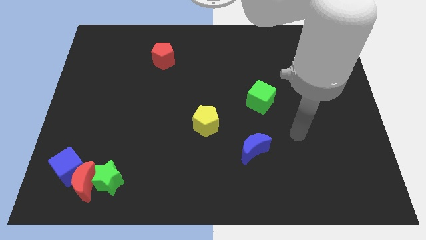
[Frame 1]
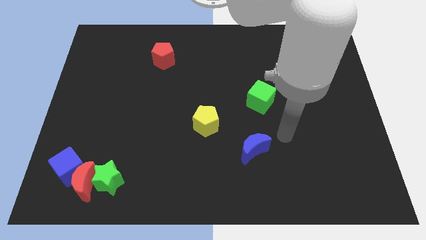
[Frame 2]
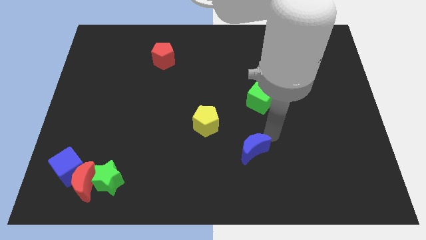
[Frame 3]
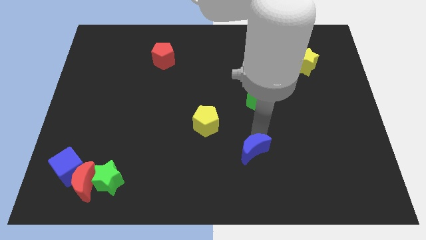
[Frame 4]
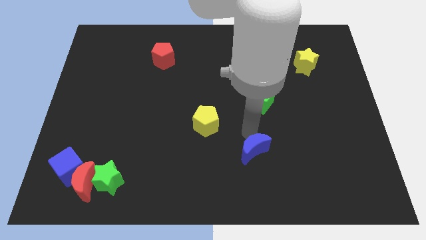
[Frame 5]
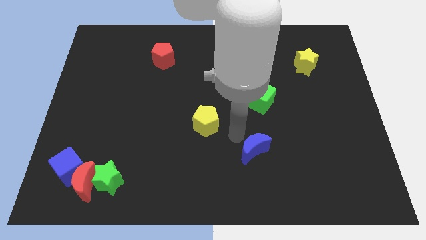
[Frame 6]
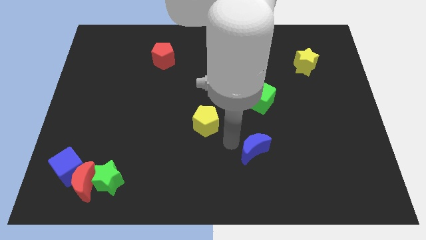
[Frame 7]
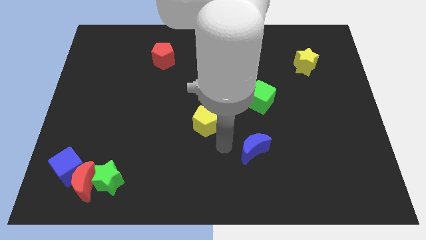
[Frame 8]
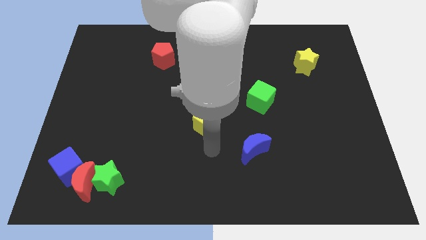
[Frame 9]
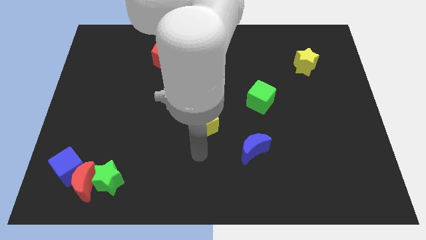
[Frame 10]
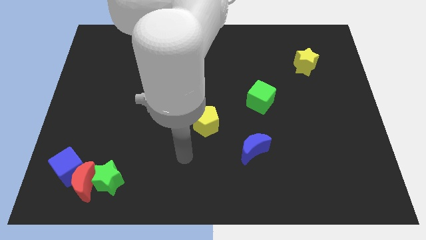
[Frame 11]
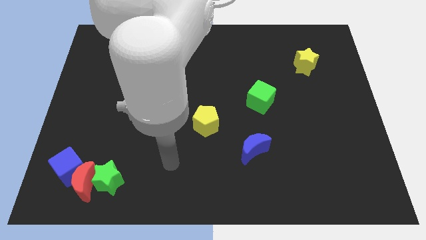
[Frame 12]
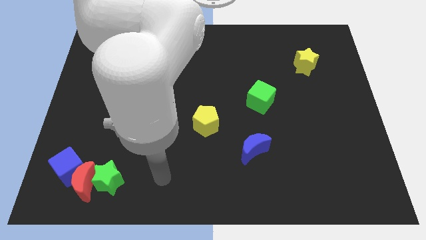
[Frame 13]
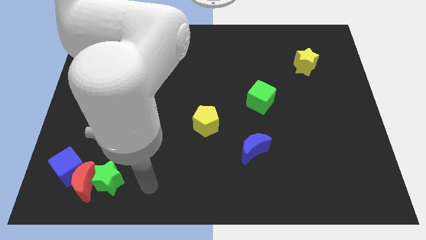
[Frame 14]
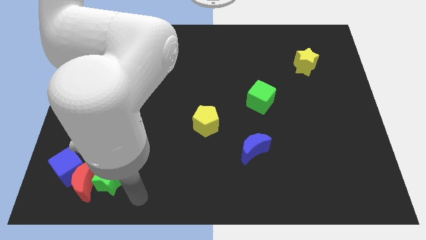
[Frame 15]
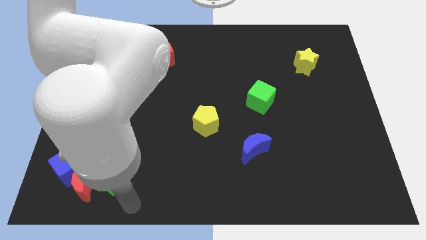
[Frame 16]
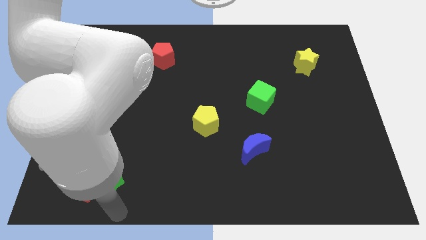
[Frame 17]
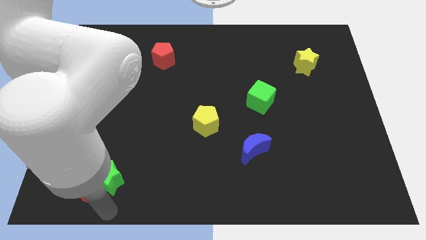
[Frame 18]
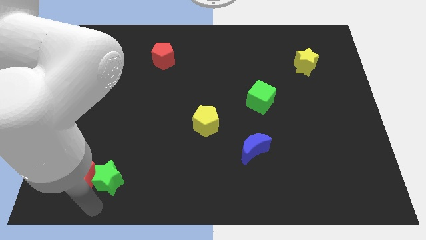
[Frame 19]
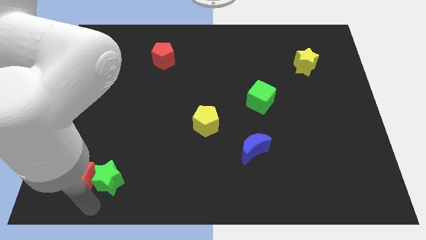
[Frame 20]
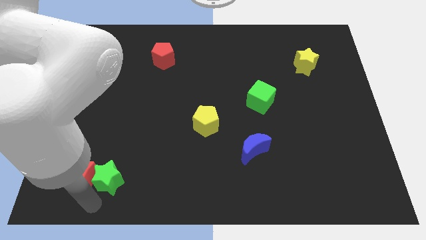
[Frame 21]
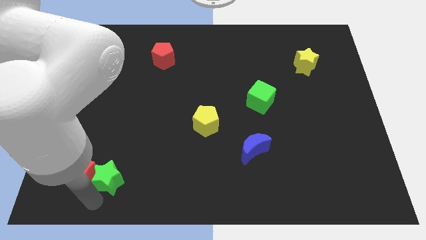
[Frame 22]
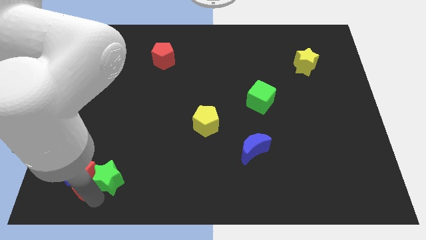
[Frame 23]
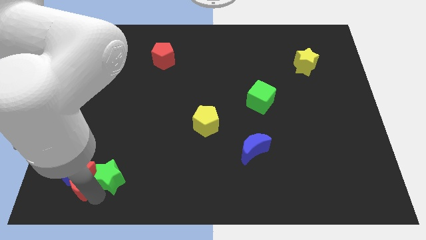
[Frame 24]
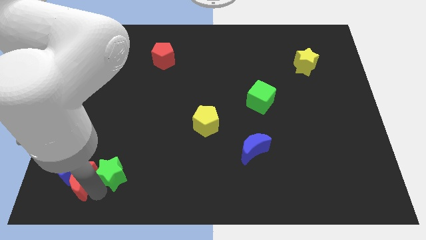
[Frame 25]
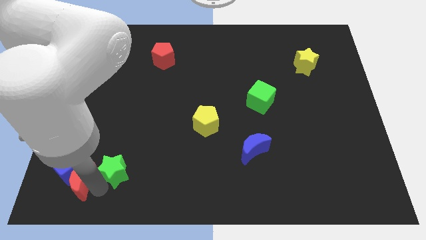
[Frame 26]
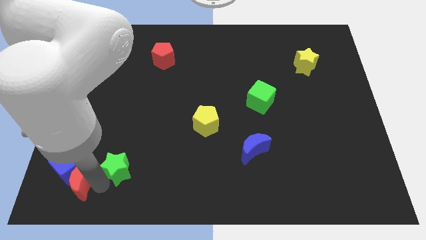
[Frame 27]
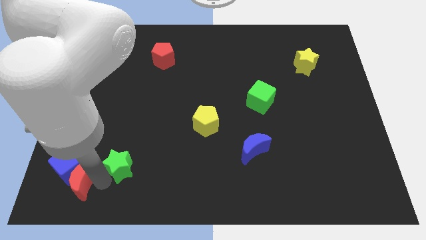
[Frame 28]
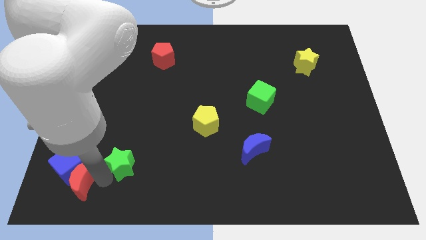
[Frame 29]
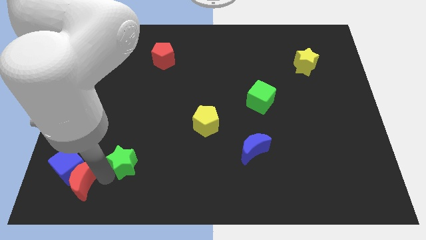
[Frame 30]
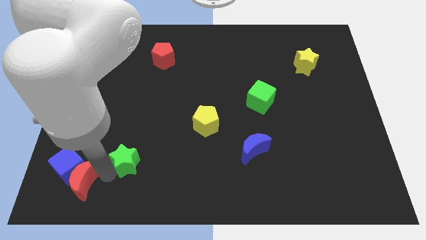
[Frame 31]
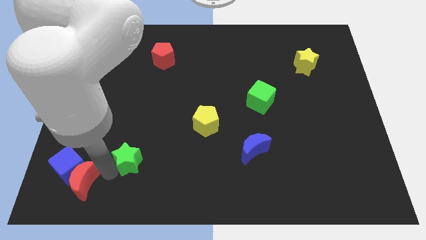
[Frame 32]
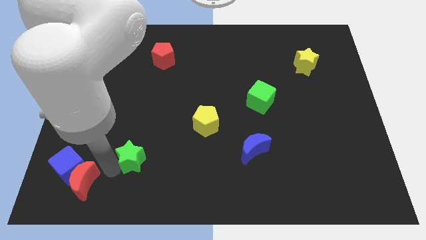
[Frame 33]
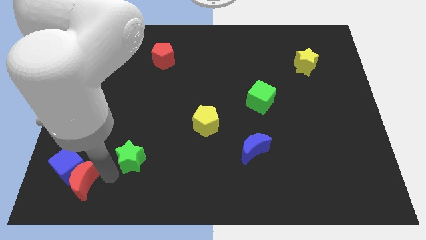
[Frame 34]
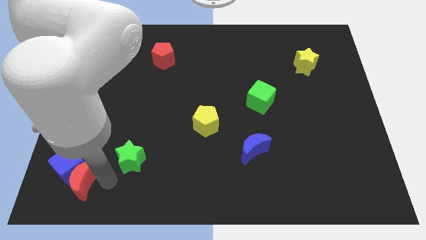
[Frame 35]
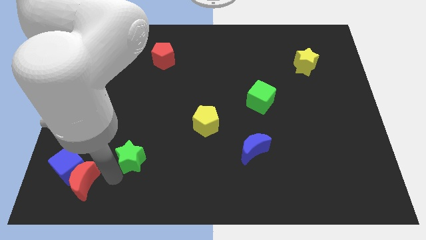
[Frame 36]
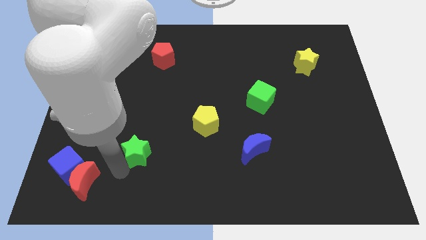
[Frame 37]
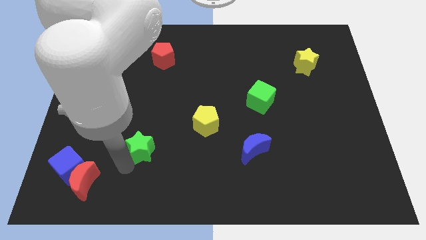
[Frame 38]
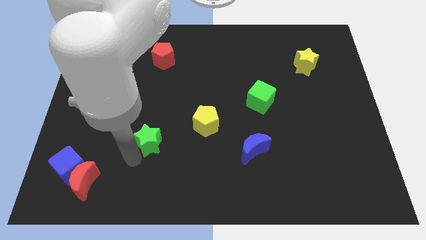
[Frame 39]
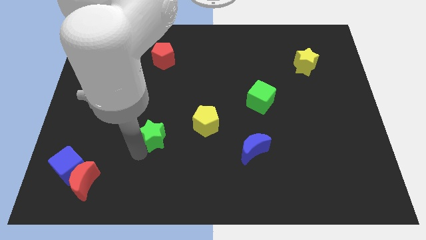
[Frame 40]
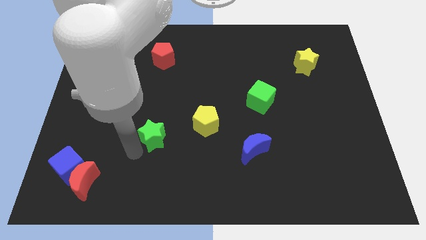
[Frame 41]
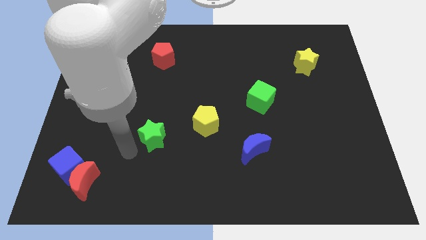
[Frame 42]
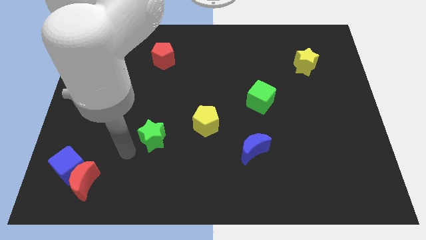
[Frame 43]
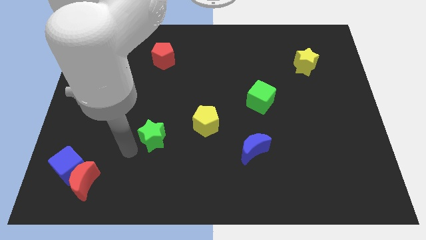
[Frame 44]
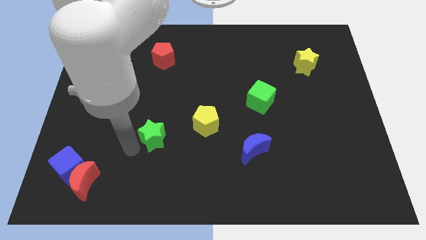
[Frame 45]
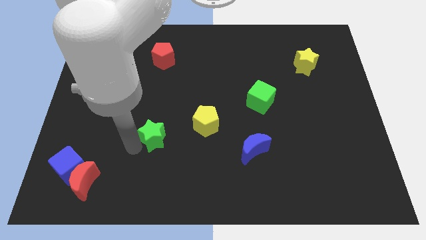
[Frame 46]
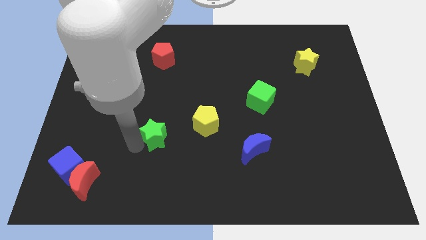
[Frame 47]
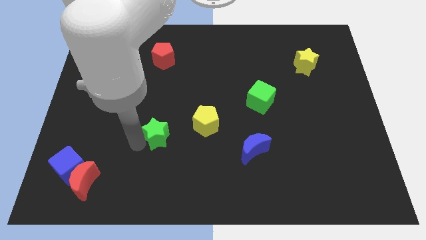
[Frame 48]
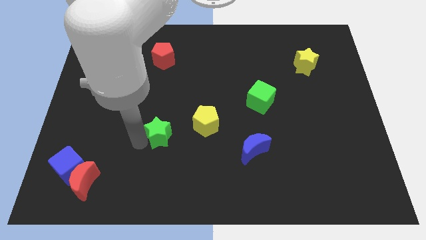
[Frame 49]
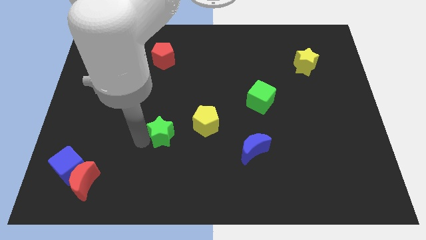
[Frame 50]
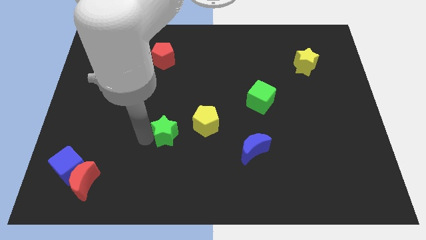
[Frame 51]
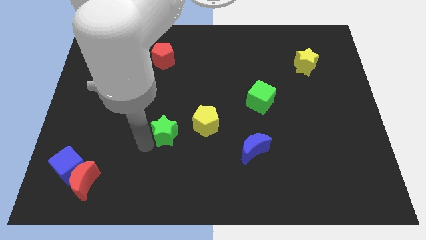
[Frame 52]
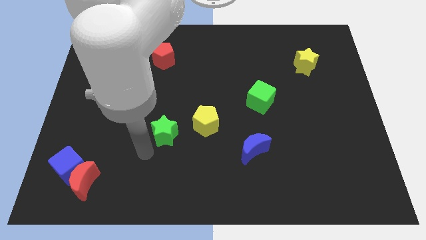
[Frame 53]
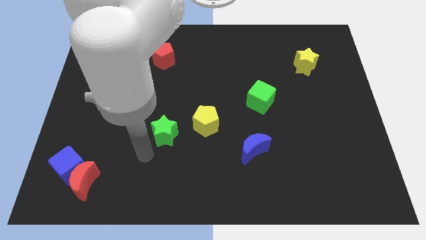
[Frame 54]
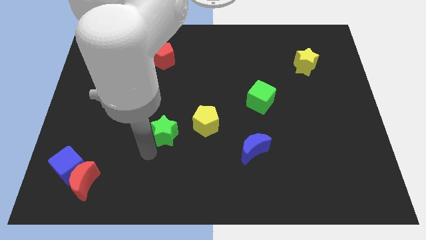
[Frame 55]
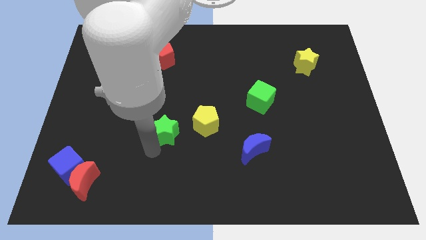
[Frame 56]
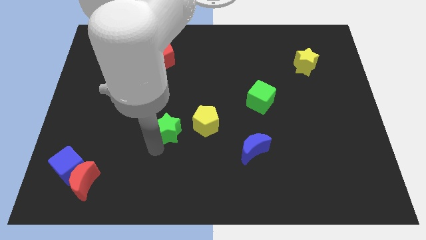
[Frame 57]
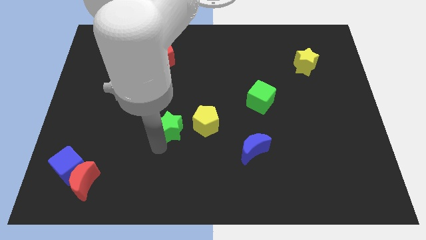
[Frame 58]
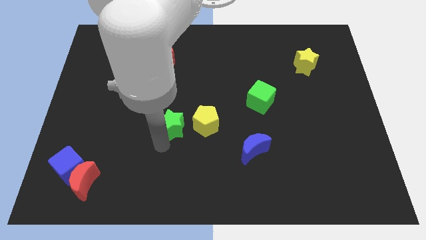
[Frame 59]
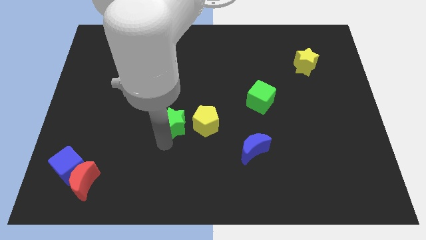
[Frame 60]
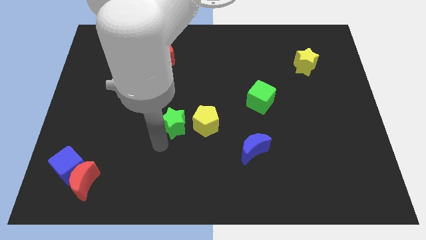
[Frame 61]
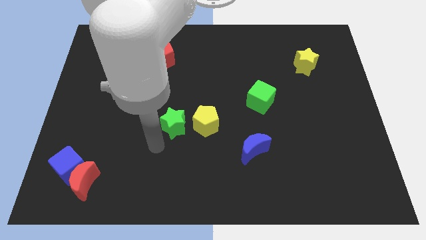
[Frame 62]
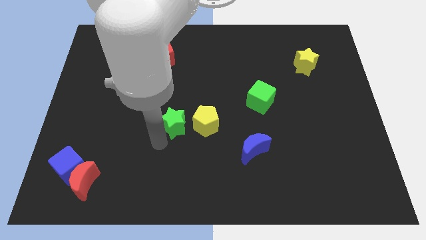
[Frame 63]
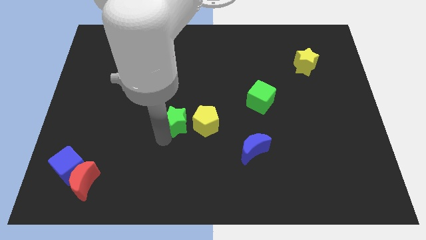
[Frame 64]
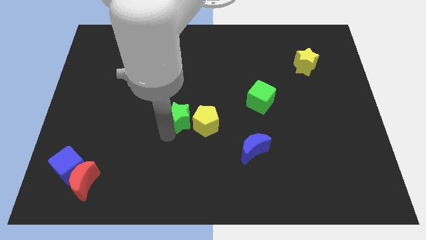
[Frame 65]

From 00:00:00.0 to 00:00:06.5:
move the green star diagonally up and to the right

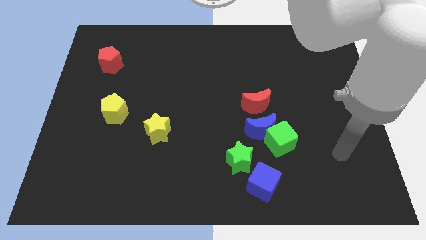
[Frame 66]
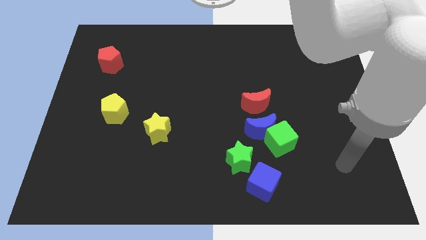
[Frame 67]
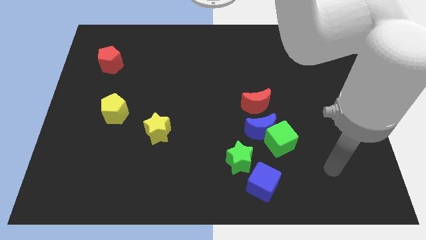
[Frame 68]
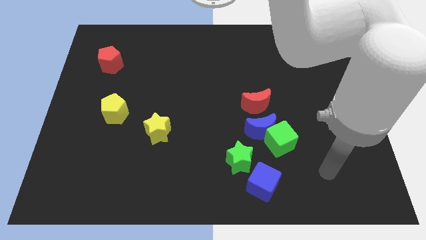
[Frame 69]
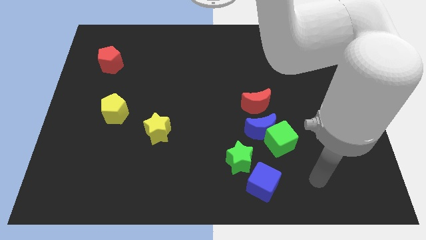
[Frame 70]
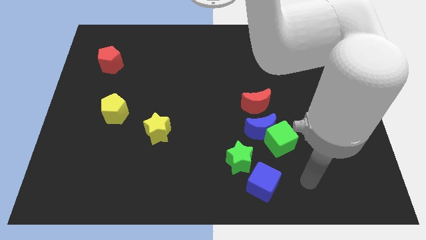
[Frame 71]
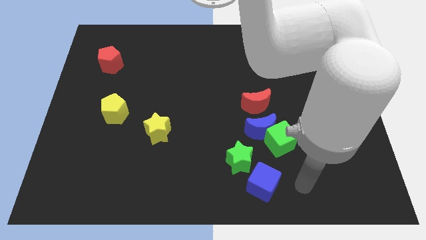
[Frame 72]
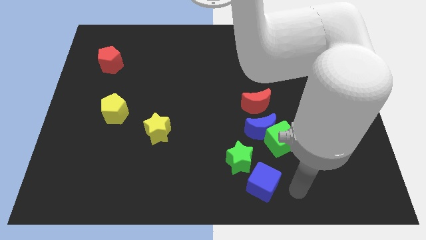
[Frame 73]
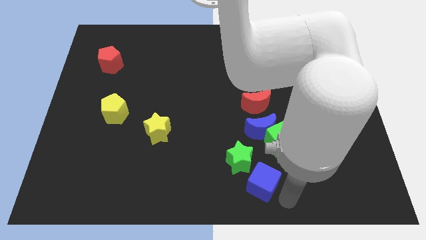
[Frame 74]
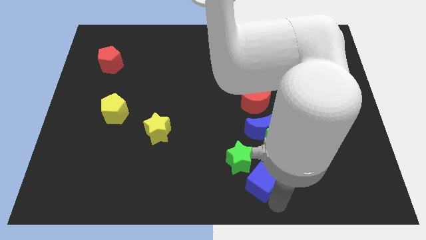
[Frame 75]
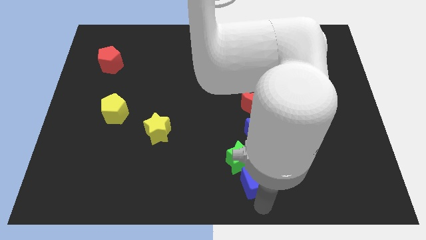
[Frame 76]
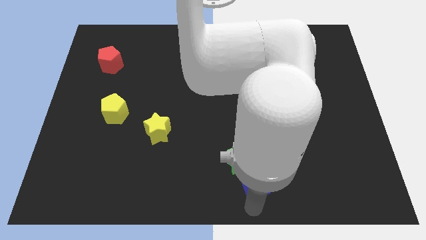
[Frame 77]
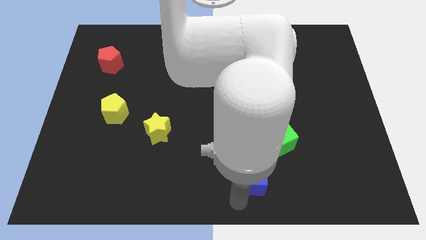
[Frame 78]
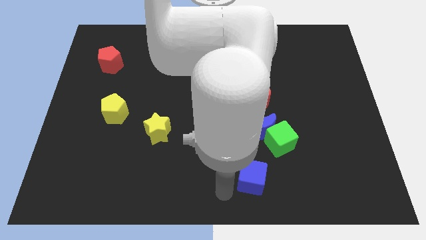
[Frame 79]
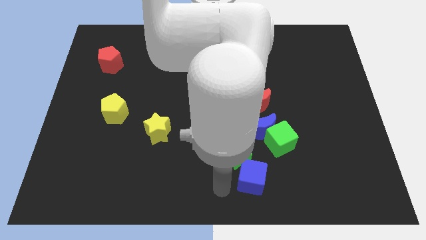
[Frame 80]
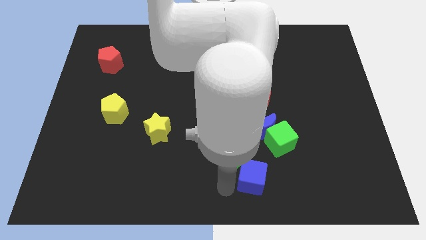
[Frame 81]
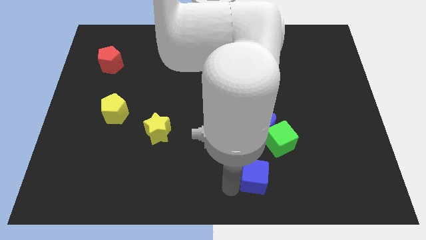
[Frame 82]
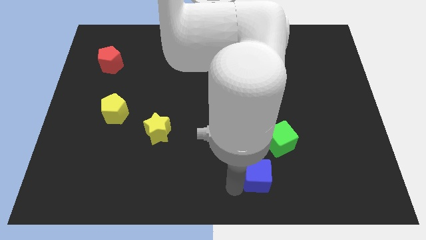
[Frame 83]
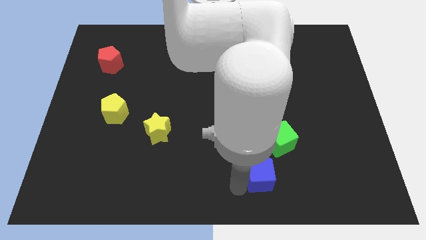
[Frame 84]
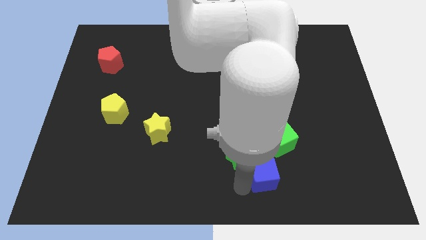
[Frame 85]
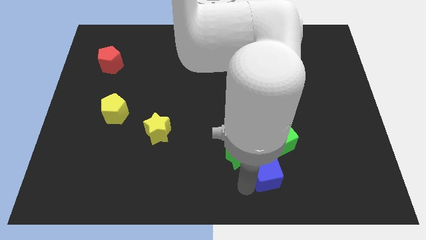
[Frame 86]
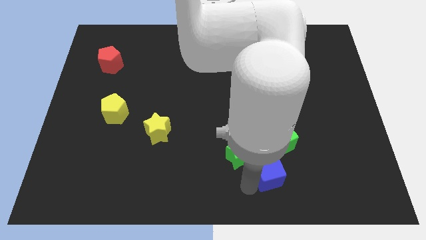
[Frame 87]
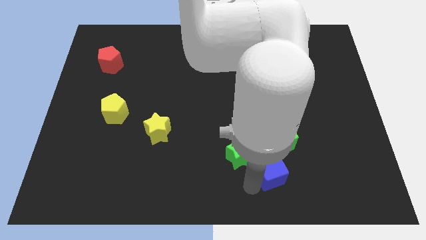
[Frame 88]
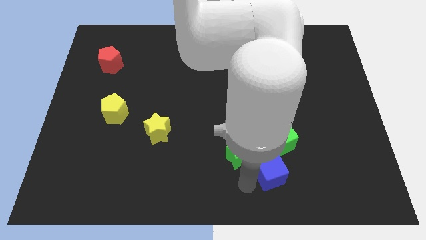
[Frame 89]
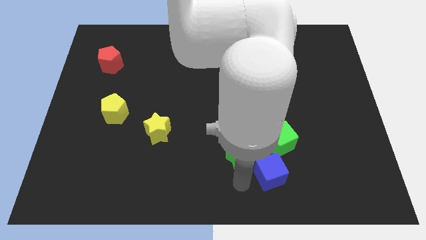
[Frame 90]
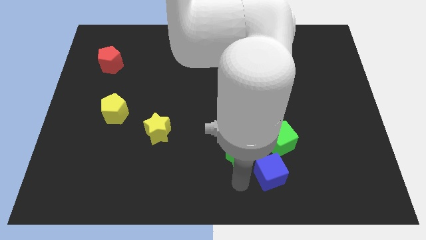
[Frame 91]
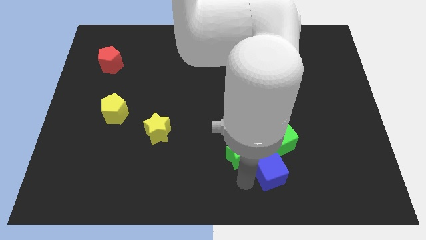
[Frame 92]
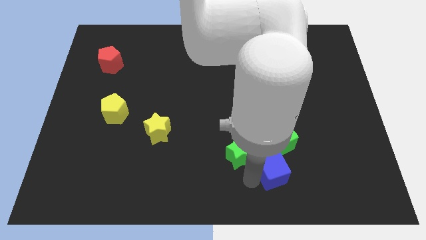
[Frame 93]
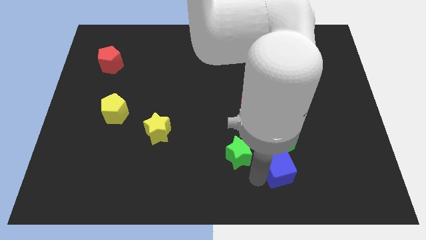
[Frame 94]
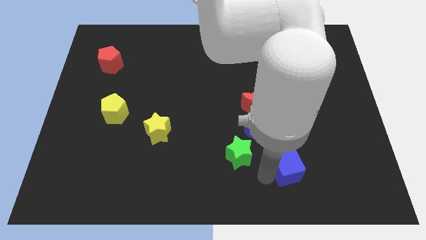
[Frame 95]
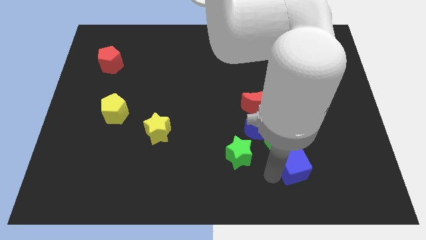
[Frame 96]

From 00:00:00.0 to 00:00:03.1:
slide the blue cube up and to the right diagonally a bit
